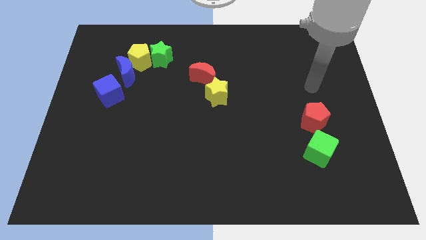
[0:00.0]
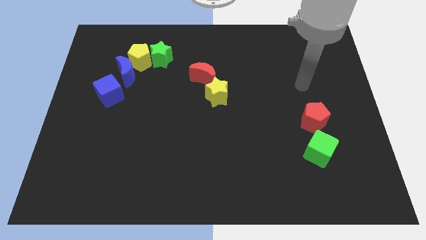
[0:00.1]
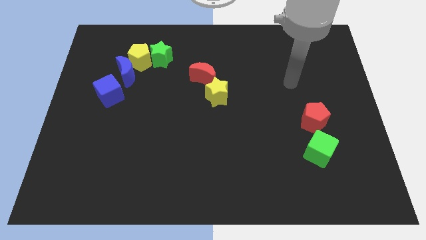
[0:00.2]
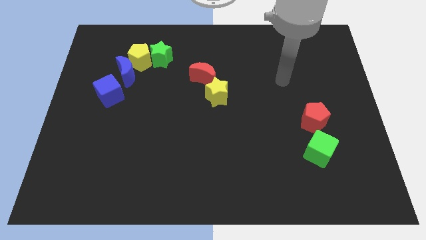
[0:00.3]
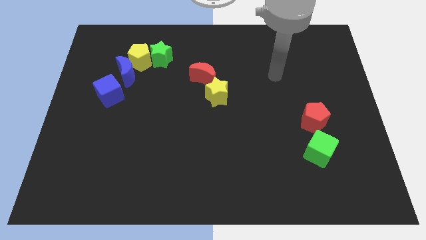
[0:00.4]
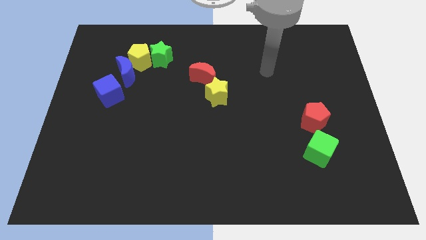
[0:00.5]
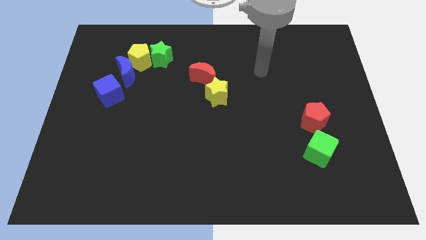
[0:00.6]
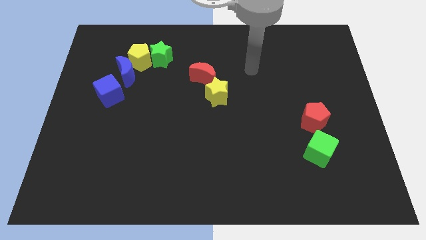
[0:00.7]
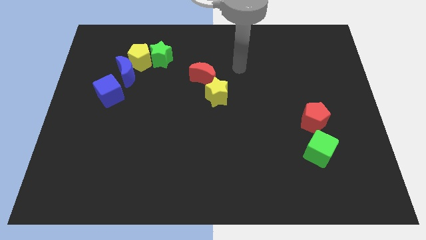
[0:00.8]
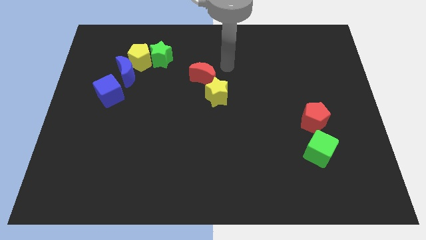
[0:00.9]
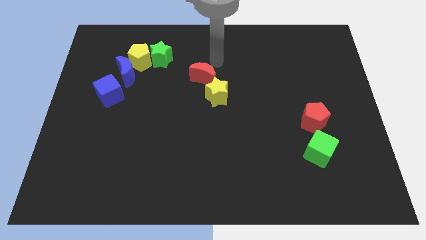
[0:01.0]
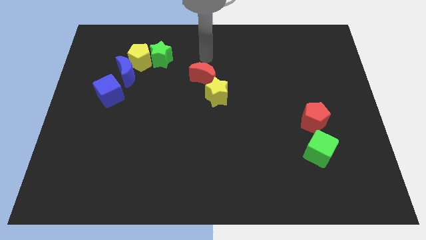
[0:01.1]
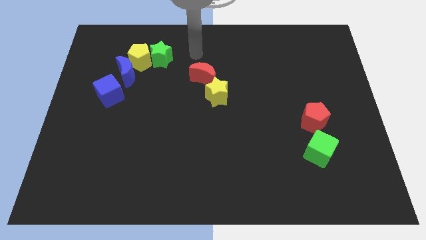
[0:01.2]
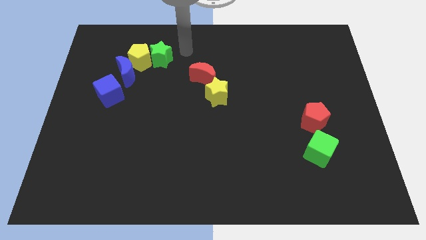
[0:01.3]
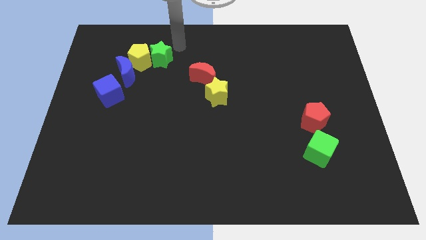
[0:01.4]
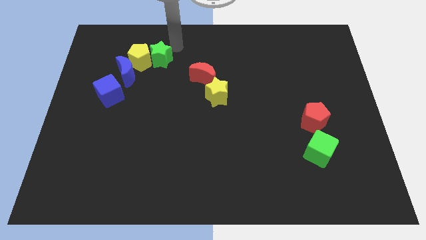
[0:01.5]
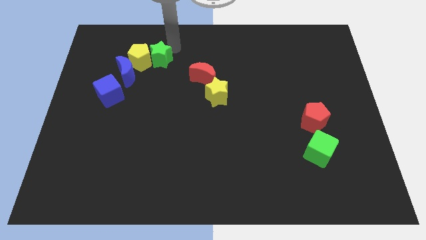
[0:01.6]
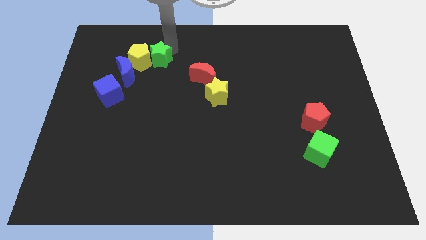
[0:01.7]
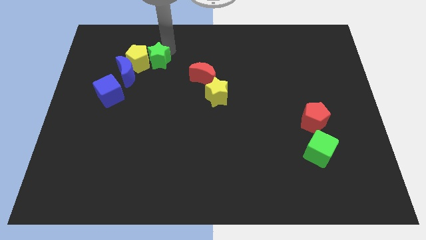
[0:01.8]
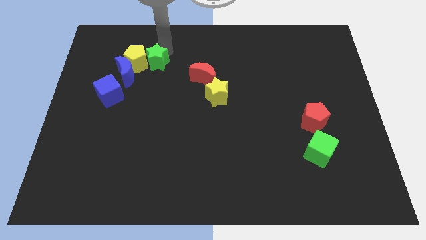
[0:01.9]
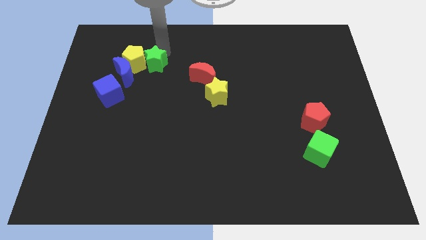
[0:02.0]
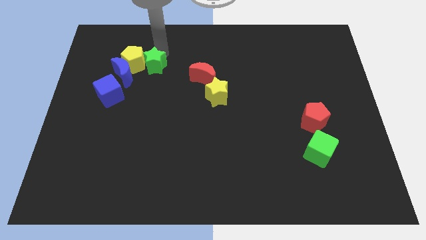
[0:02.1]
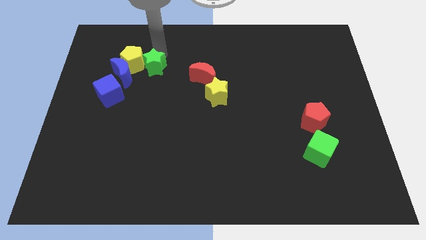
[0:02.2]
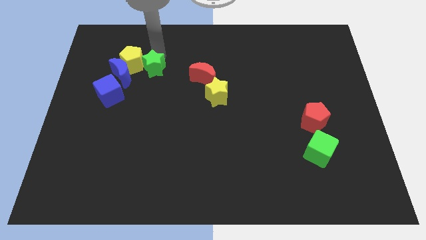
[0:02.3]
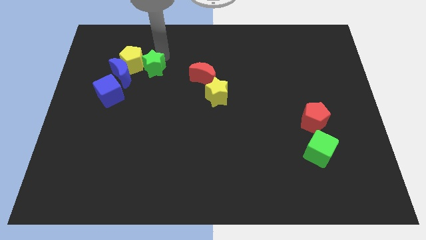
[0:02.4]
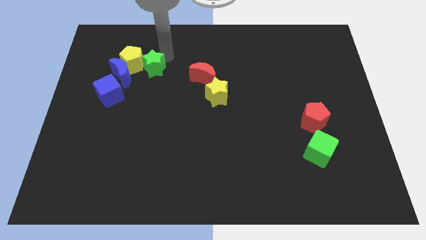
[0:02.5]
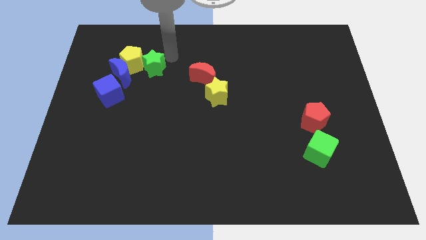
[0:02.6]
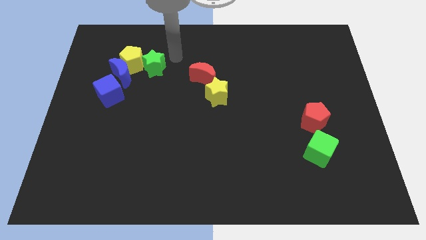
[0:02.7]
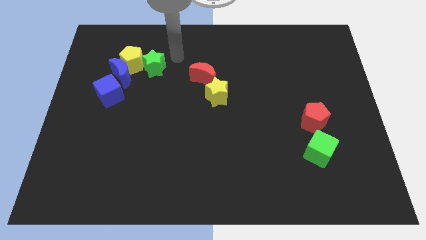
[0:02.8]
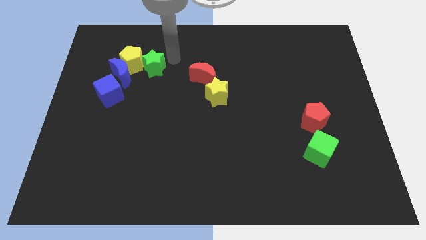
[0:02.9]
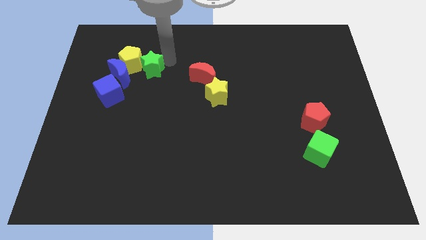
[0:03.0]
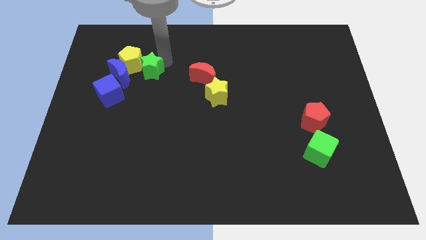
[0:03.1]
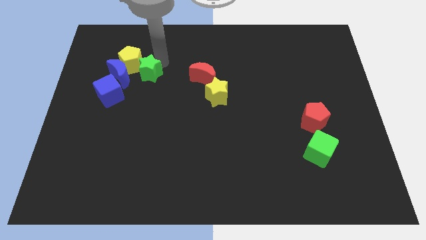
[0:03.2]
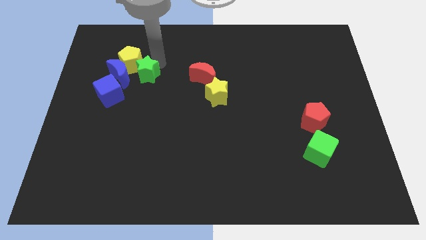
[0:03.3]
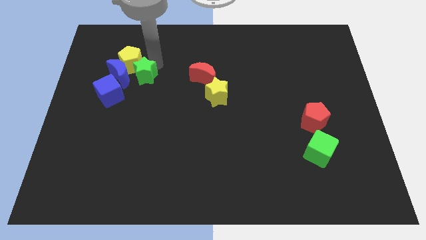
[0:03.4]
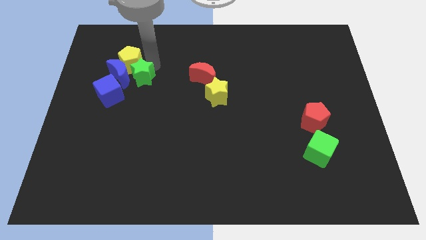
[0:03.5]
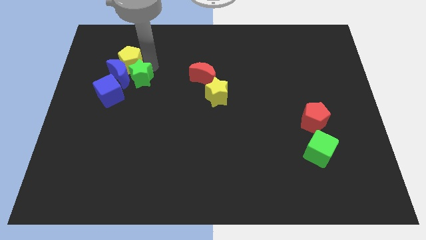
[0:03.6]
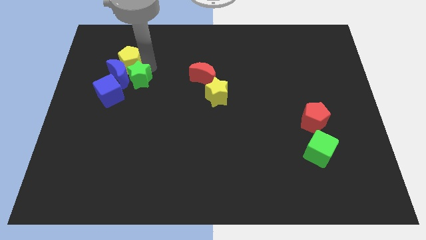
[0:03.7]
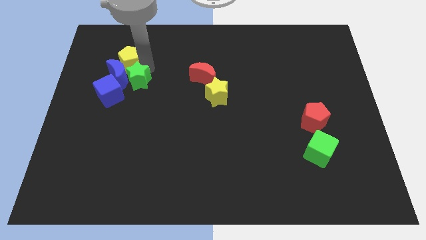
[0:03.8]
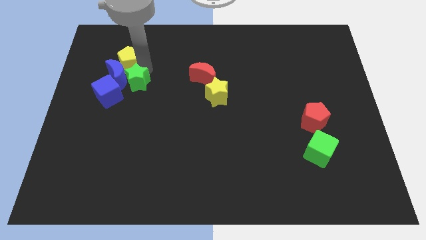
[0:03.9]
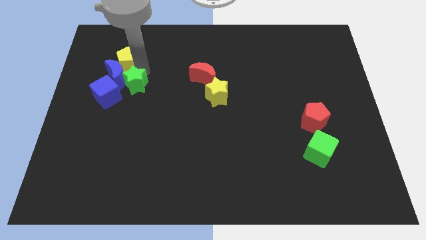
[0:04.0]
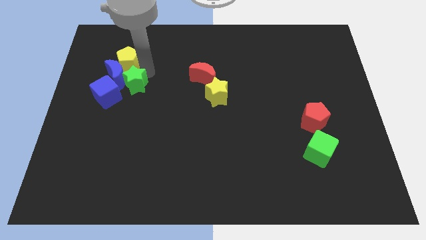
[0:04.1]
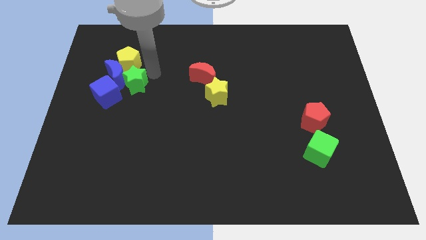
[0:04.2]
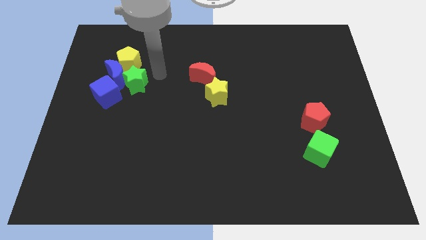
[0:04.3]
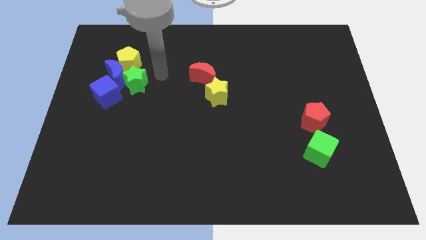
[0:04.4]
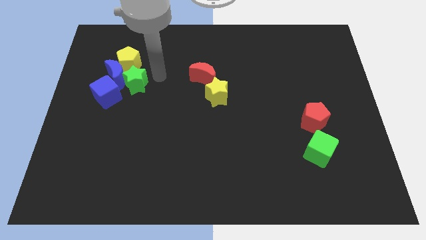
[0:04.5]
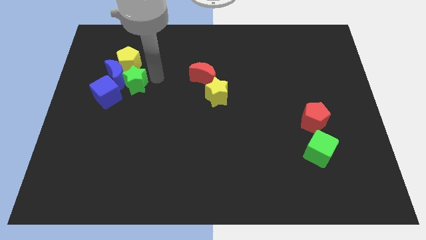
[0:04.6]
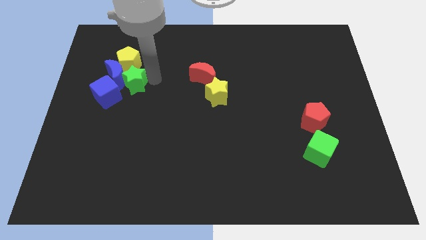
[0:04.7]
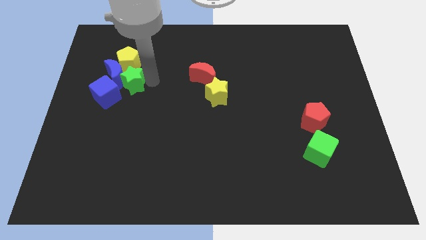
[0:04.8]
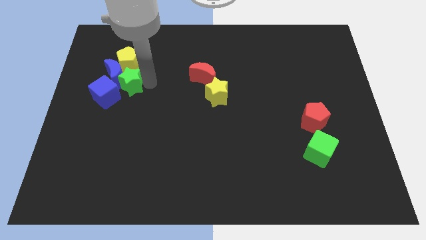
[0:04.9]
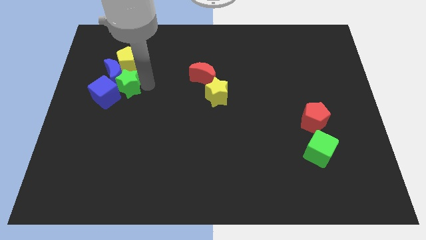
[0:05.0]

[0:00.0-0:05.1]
slide the green star to the blue cube

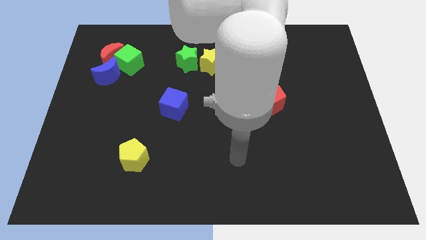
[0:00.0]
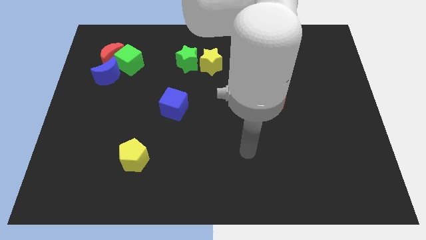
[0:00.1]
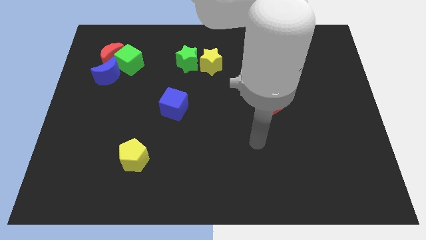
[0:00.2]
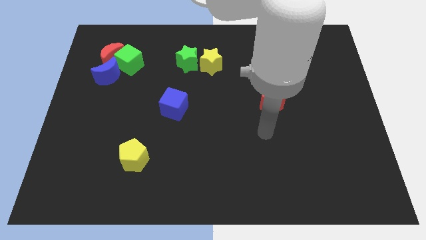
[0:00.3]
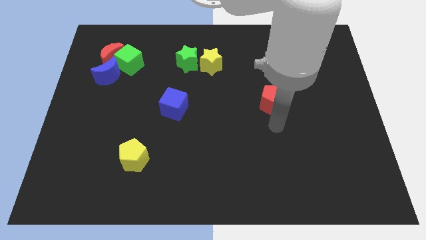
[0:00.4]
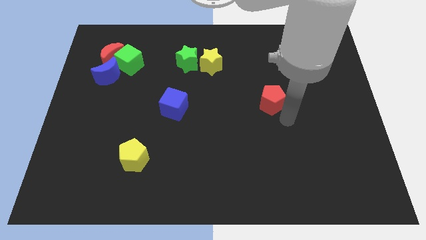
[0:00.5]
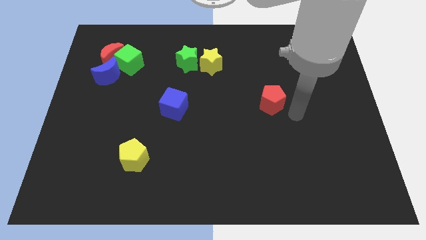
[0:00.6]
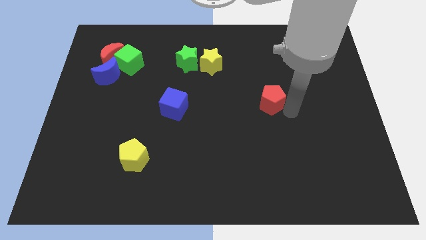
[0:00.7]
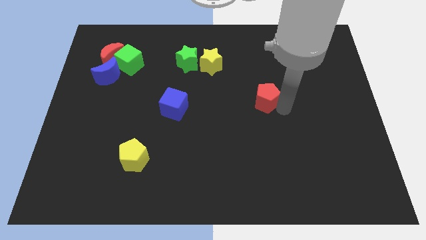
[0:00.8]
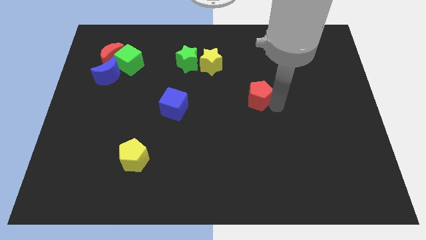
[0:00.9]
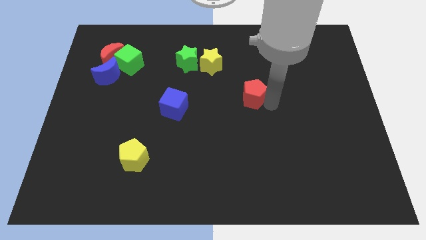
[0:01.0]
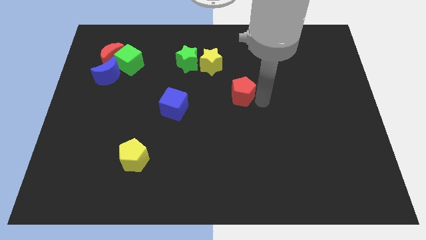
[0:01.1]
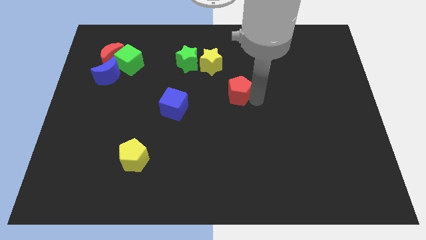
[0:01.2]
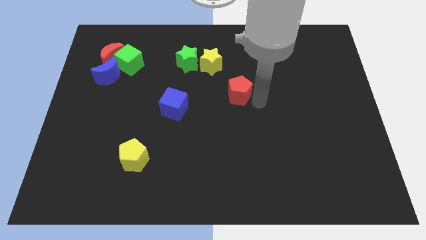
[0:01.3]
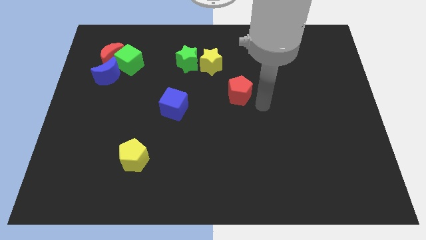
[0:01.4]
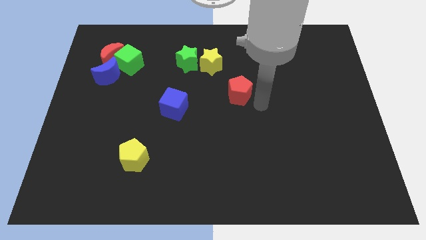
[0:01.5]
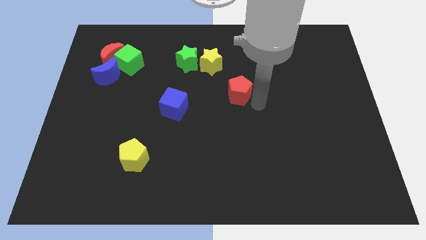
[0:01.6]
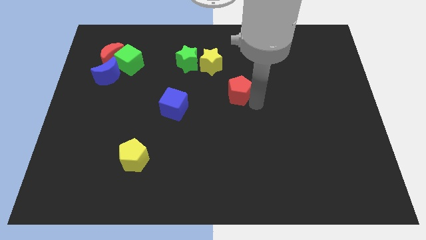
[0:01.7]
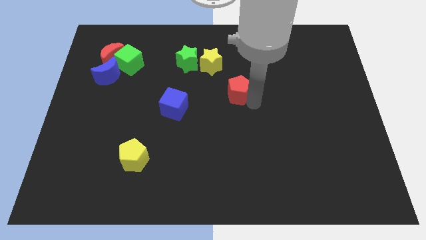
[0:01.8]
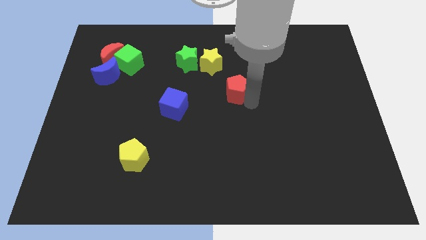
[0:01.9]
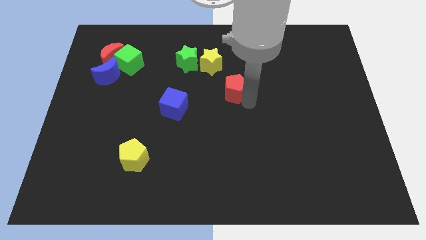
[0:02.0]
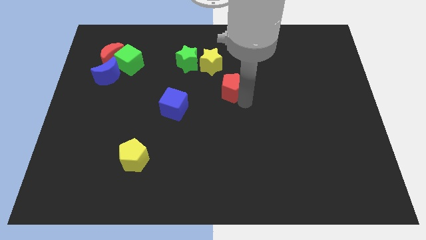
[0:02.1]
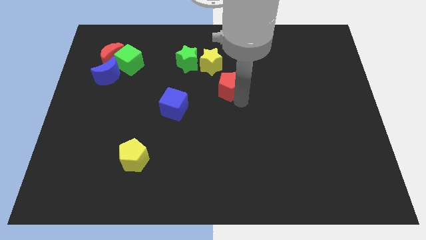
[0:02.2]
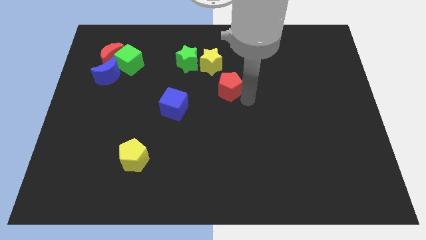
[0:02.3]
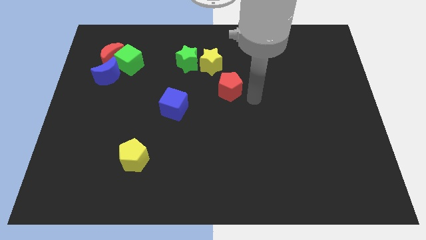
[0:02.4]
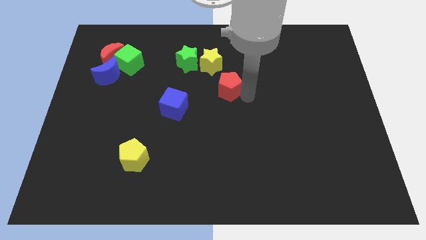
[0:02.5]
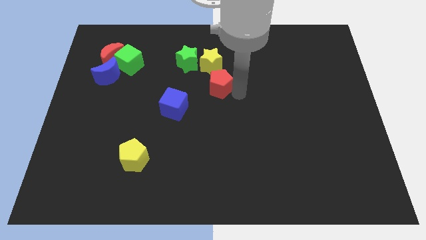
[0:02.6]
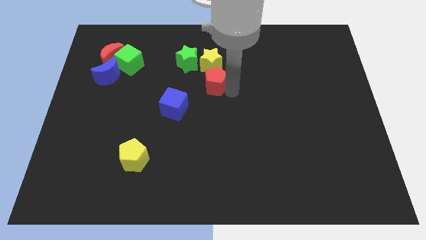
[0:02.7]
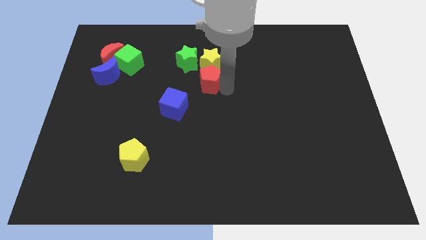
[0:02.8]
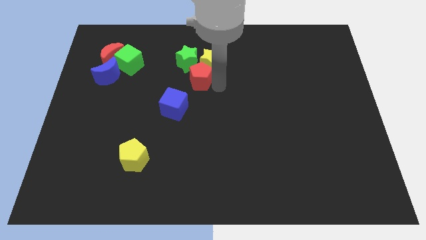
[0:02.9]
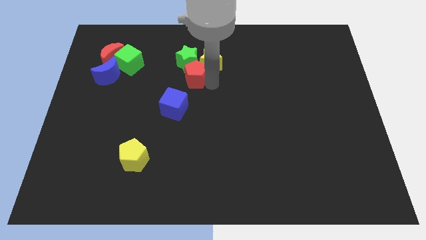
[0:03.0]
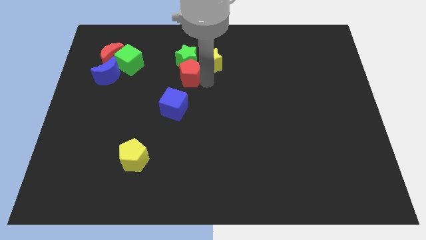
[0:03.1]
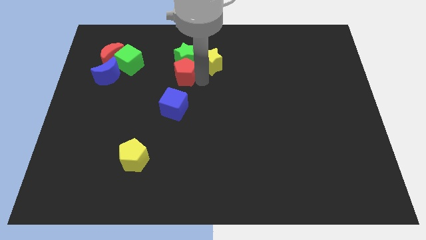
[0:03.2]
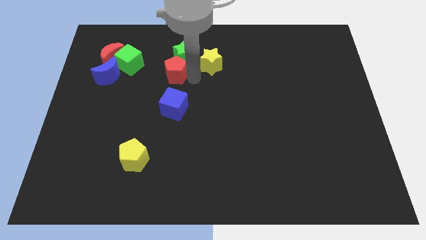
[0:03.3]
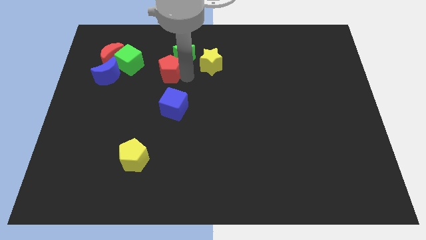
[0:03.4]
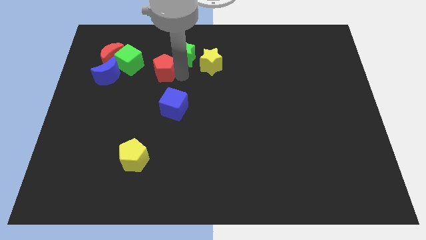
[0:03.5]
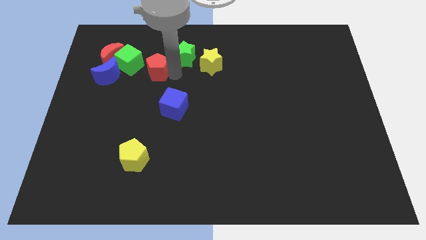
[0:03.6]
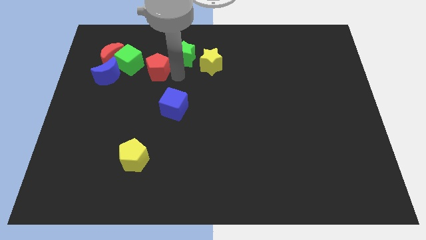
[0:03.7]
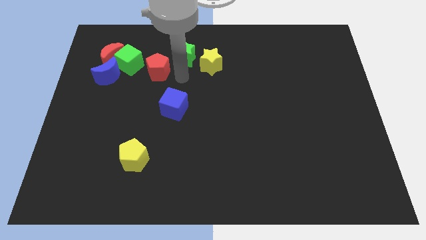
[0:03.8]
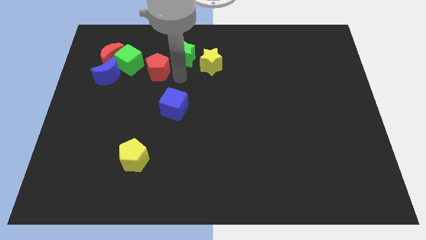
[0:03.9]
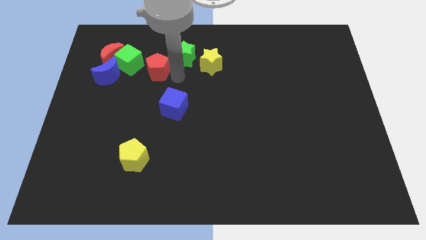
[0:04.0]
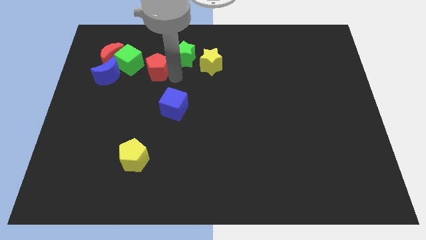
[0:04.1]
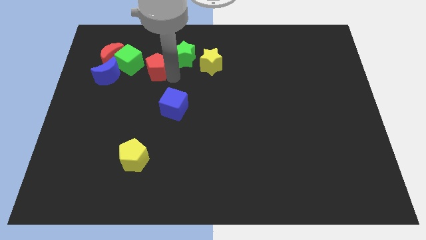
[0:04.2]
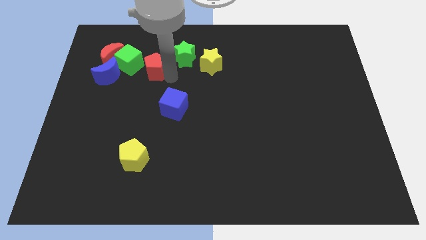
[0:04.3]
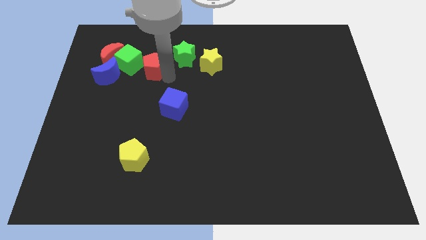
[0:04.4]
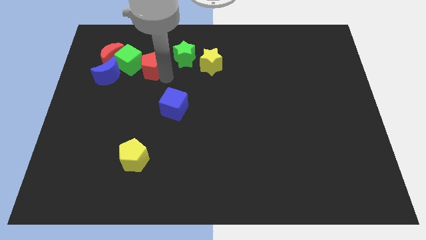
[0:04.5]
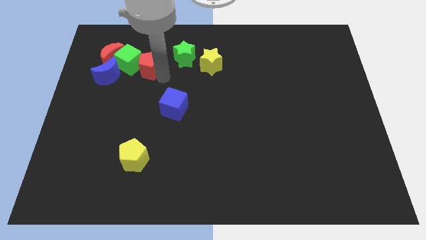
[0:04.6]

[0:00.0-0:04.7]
push the red pentagon to the green cube
